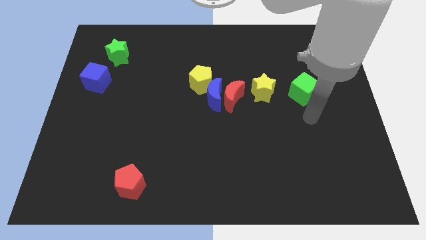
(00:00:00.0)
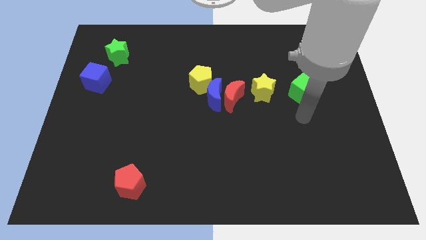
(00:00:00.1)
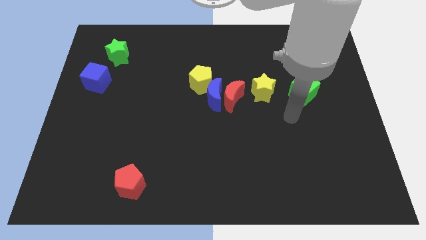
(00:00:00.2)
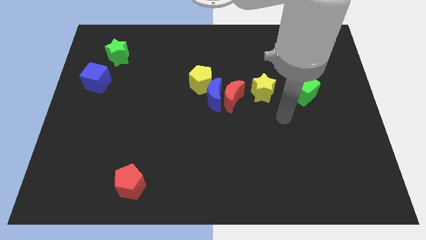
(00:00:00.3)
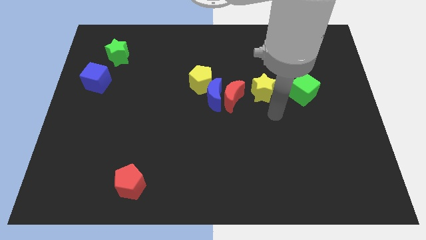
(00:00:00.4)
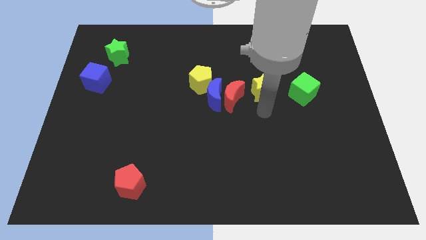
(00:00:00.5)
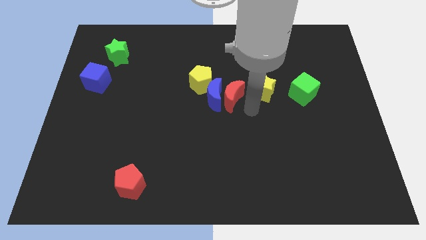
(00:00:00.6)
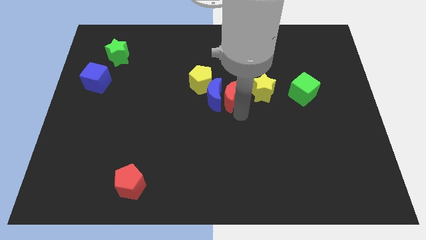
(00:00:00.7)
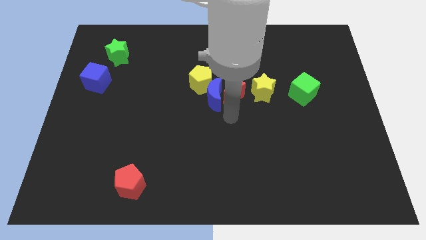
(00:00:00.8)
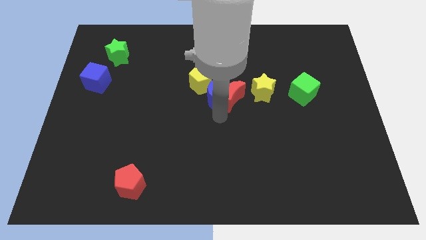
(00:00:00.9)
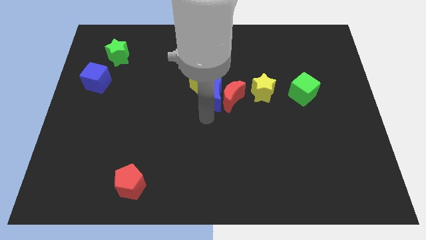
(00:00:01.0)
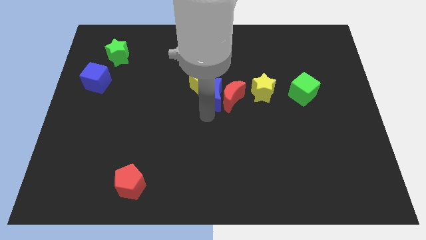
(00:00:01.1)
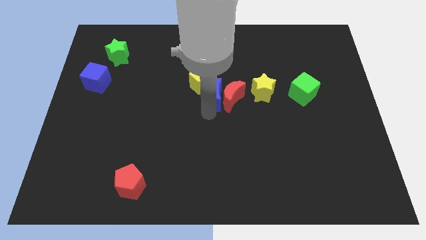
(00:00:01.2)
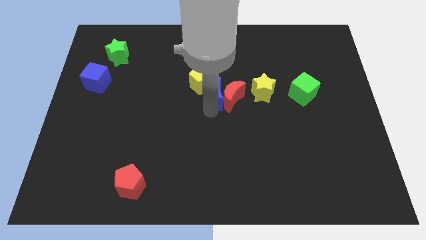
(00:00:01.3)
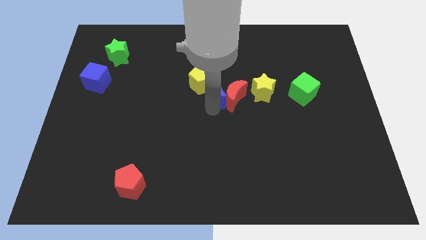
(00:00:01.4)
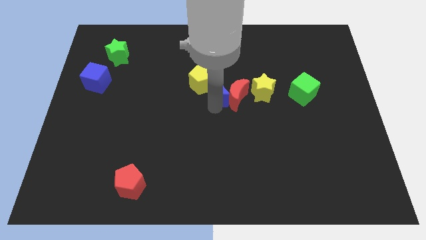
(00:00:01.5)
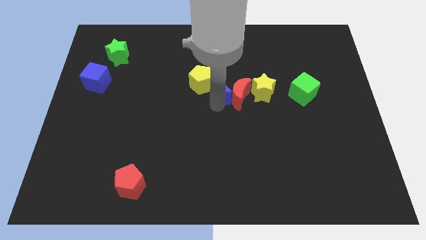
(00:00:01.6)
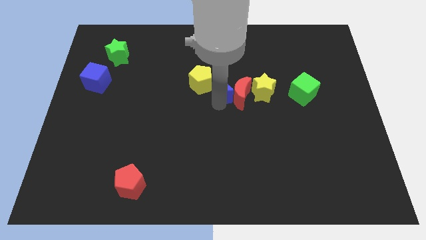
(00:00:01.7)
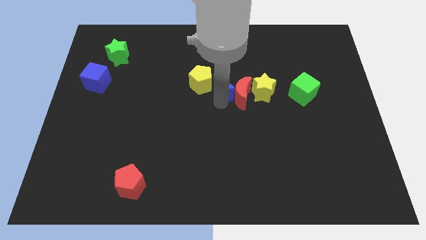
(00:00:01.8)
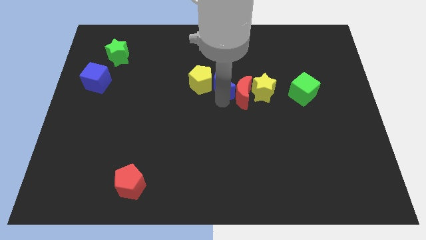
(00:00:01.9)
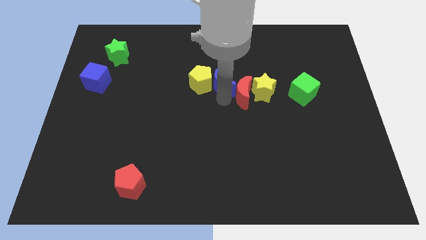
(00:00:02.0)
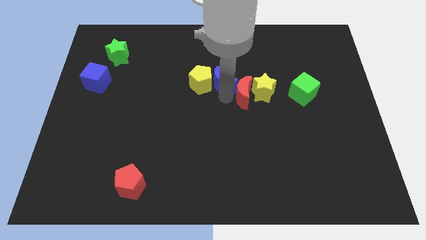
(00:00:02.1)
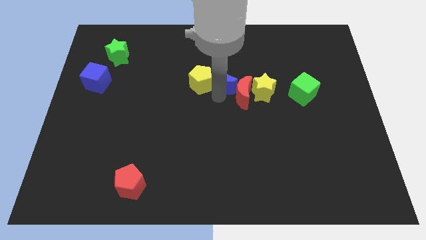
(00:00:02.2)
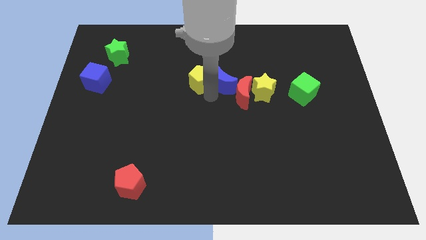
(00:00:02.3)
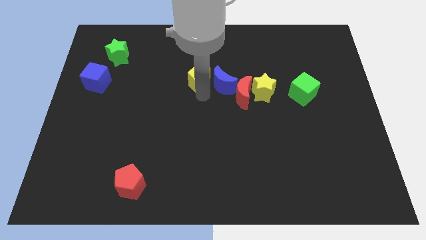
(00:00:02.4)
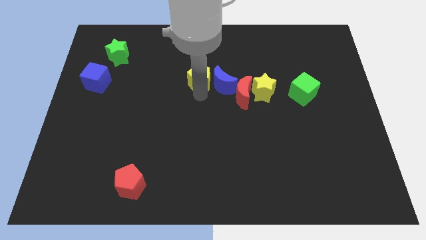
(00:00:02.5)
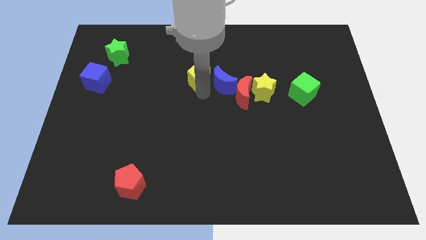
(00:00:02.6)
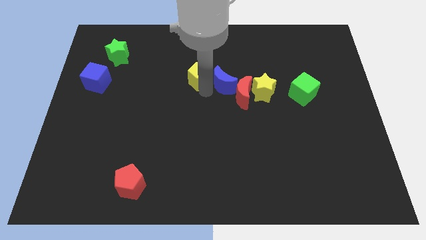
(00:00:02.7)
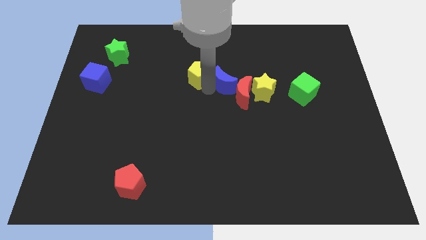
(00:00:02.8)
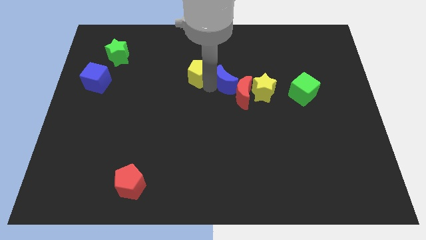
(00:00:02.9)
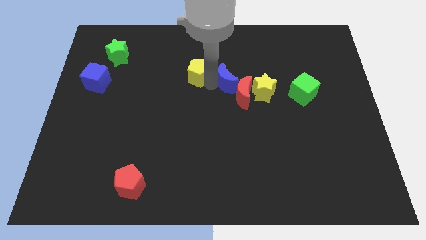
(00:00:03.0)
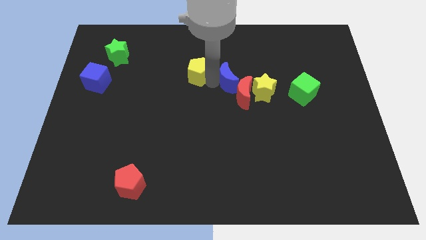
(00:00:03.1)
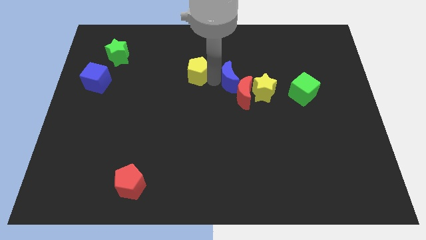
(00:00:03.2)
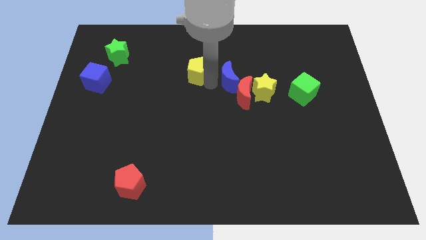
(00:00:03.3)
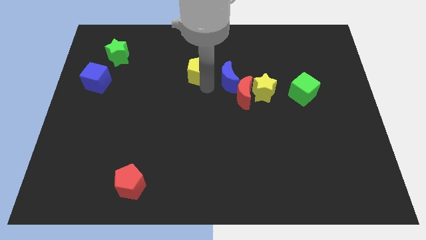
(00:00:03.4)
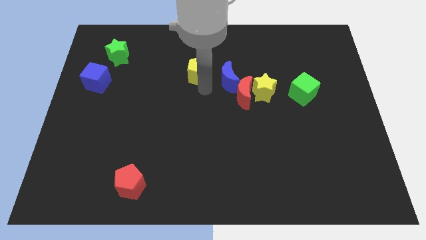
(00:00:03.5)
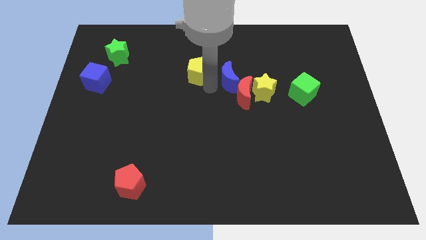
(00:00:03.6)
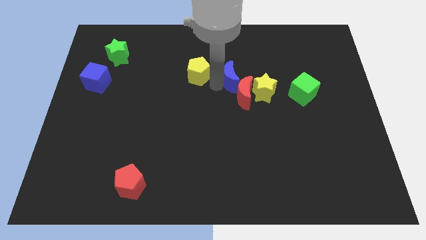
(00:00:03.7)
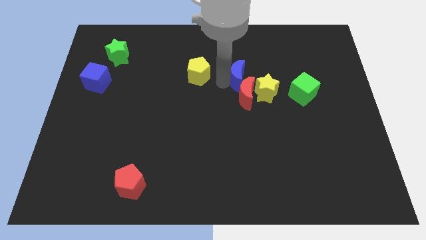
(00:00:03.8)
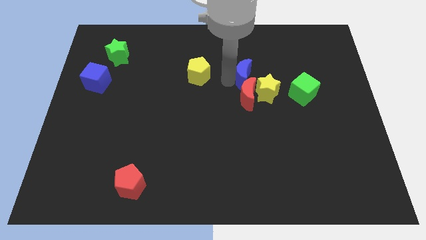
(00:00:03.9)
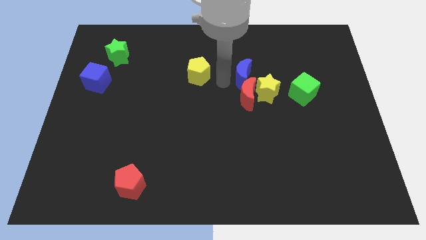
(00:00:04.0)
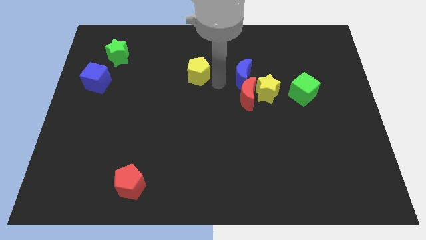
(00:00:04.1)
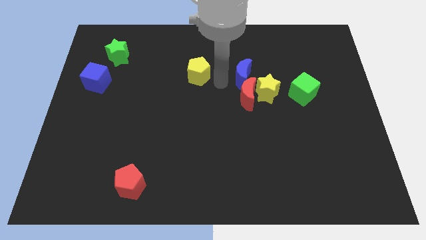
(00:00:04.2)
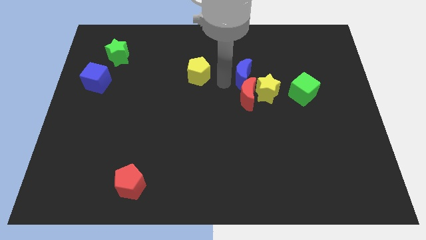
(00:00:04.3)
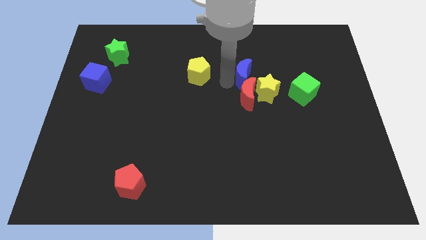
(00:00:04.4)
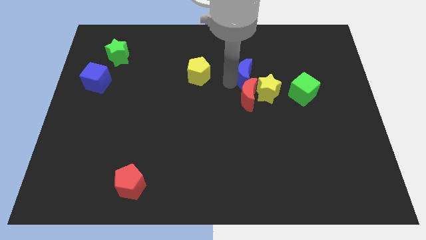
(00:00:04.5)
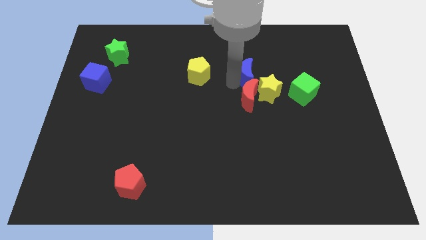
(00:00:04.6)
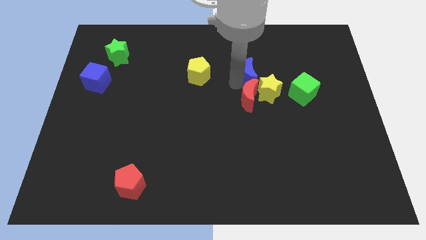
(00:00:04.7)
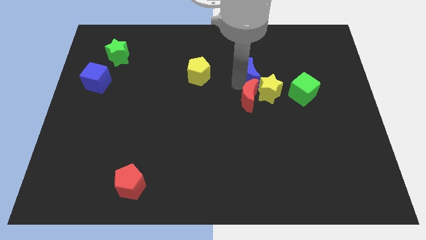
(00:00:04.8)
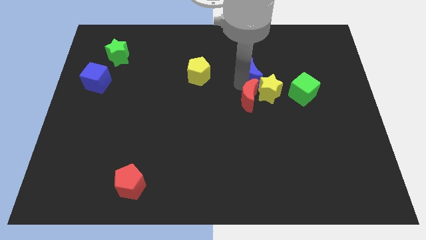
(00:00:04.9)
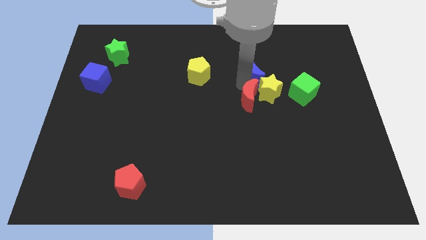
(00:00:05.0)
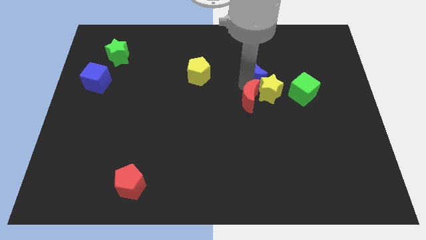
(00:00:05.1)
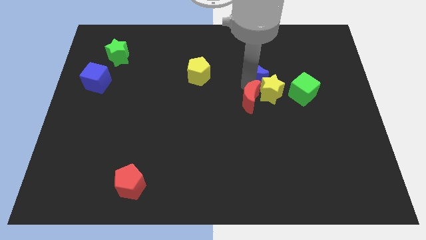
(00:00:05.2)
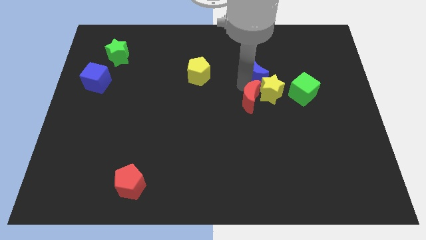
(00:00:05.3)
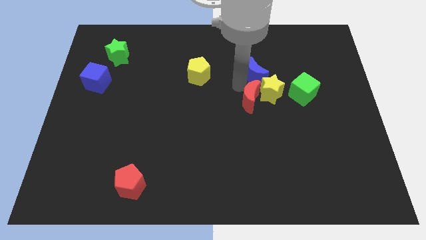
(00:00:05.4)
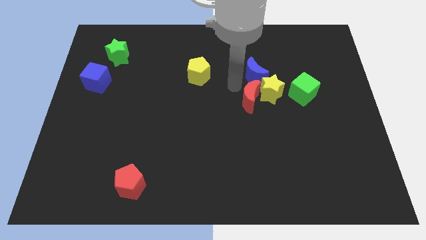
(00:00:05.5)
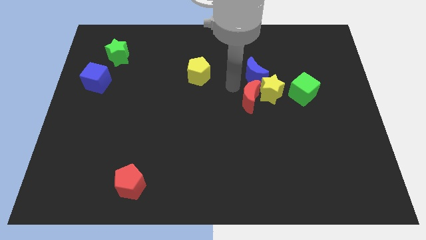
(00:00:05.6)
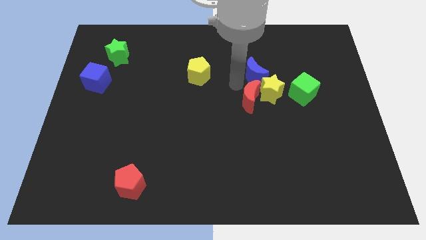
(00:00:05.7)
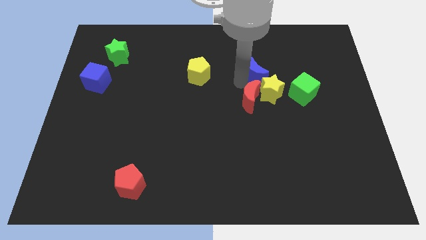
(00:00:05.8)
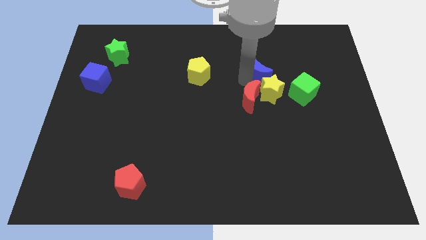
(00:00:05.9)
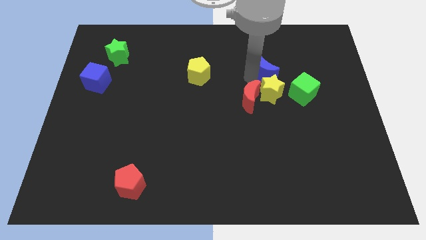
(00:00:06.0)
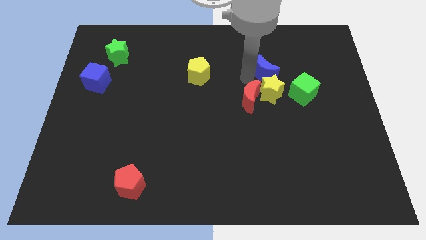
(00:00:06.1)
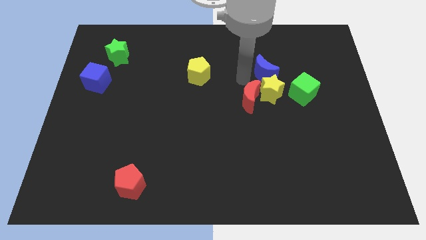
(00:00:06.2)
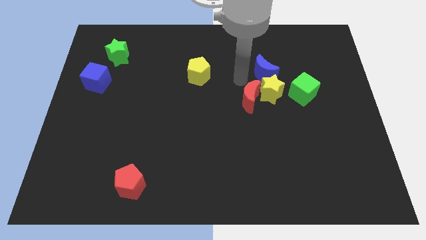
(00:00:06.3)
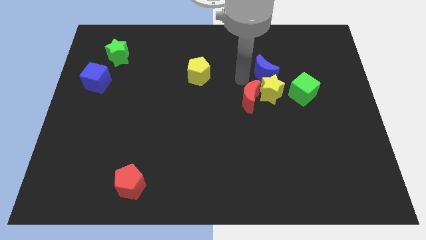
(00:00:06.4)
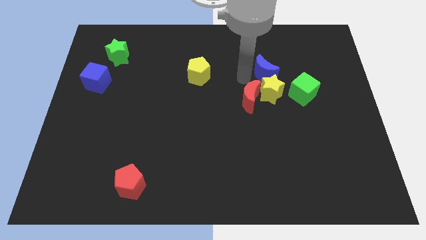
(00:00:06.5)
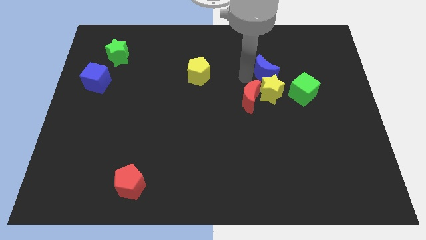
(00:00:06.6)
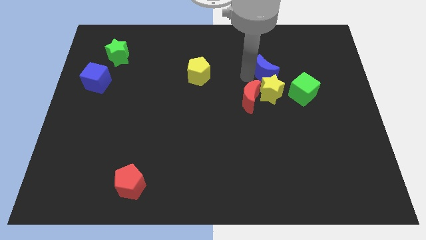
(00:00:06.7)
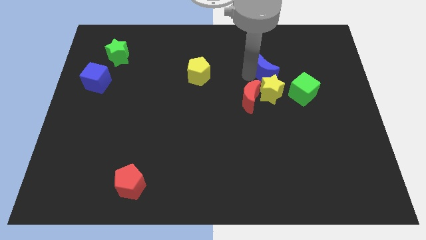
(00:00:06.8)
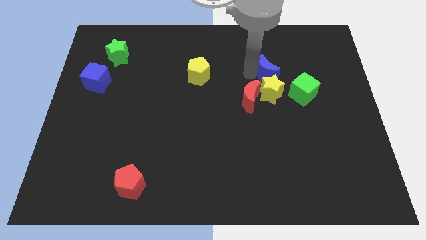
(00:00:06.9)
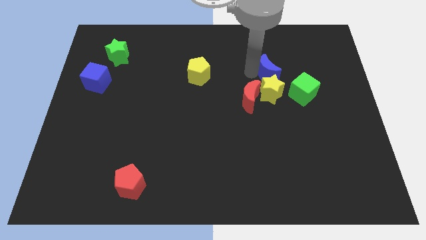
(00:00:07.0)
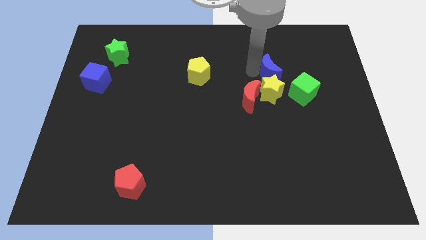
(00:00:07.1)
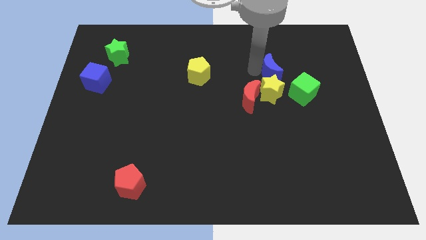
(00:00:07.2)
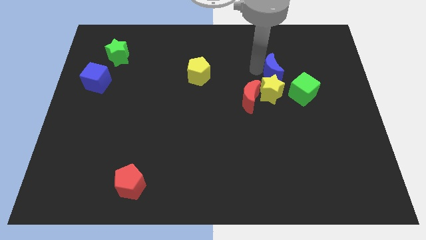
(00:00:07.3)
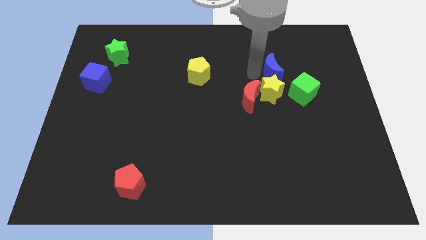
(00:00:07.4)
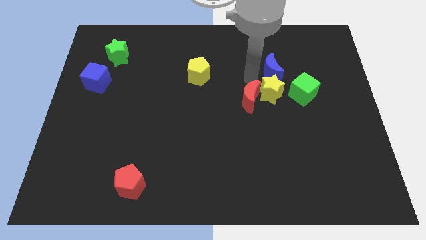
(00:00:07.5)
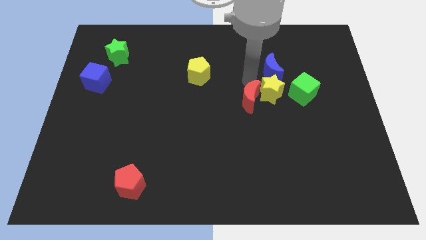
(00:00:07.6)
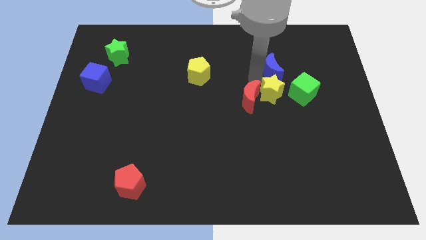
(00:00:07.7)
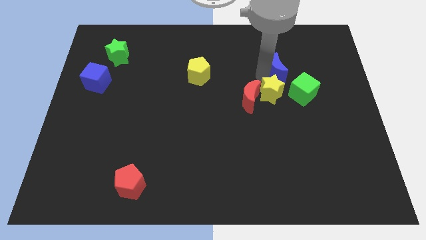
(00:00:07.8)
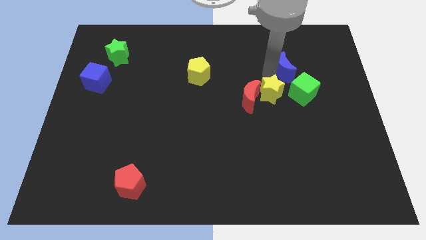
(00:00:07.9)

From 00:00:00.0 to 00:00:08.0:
put the blue moon to the top side of the green cube
